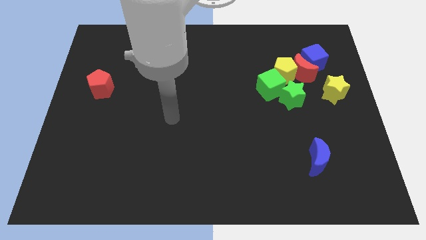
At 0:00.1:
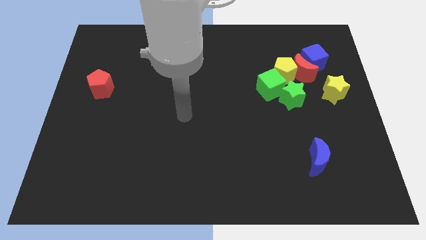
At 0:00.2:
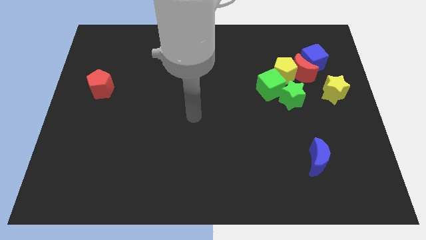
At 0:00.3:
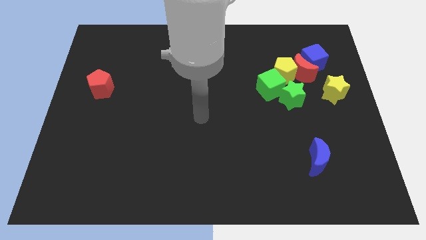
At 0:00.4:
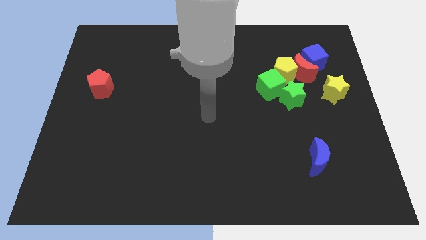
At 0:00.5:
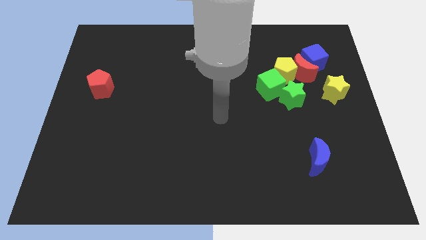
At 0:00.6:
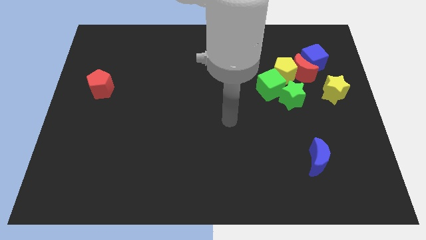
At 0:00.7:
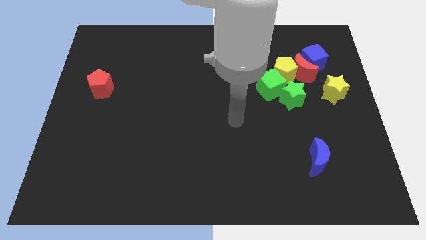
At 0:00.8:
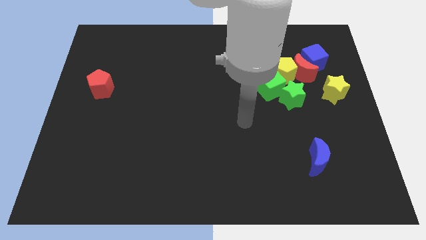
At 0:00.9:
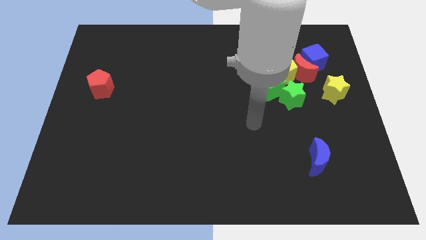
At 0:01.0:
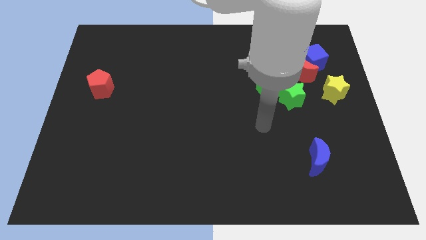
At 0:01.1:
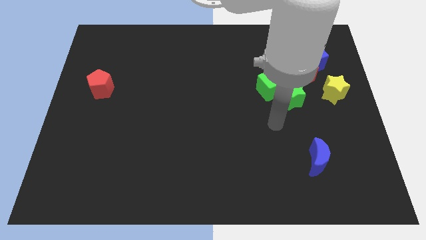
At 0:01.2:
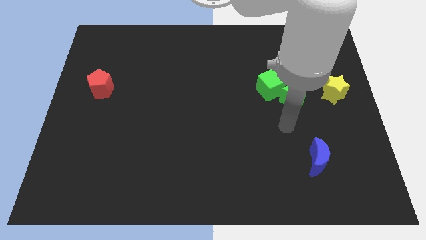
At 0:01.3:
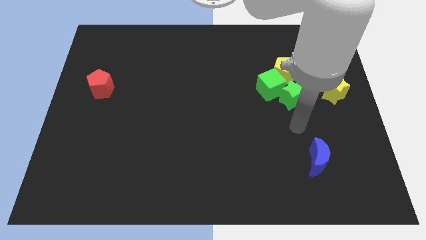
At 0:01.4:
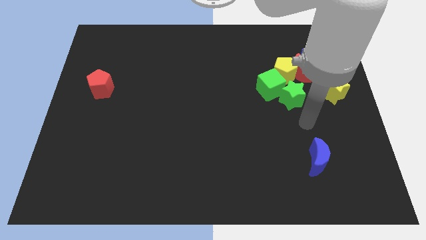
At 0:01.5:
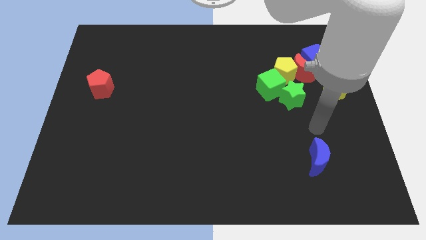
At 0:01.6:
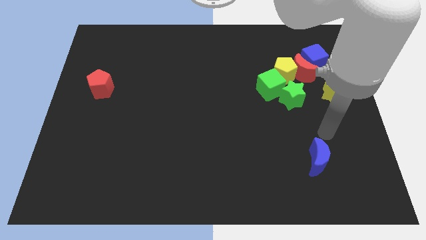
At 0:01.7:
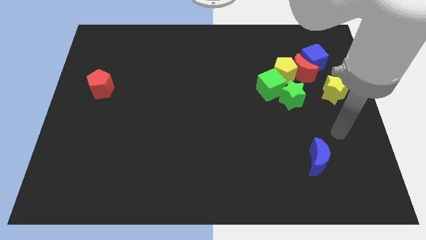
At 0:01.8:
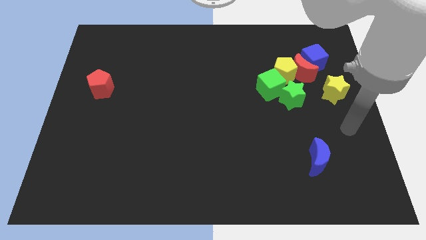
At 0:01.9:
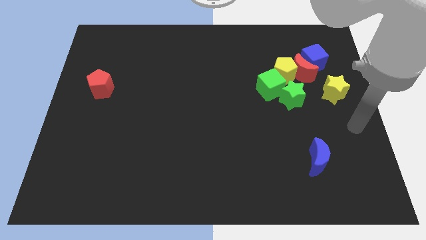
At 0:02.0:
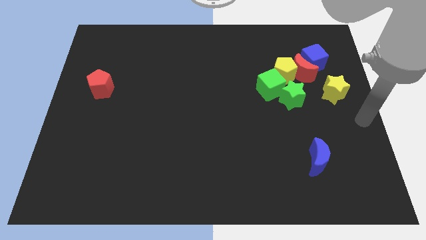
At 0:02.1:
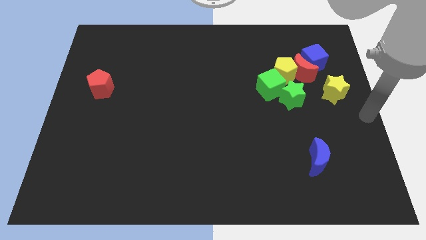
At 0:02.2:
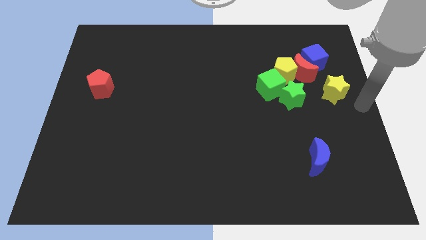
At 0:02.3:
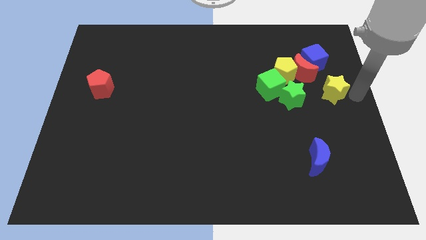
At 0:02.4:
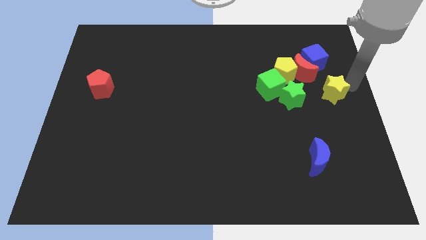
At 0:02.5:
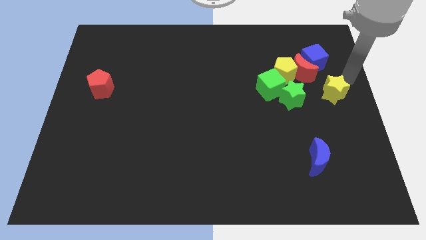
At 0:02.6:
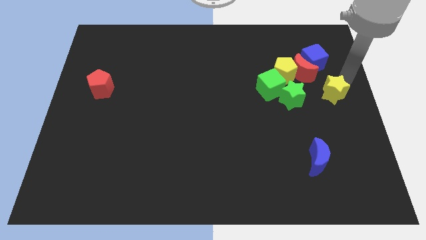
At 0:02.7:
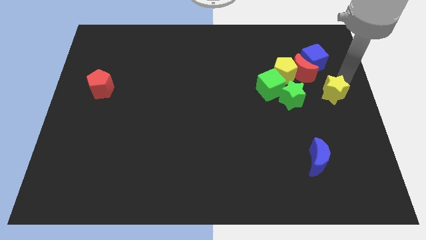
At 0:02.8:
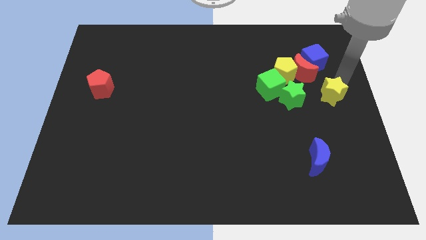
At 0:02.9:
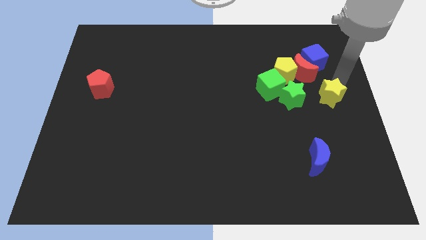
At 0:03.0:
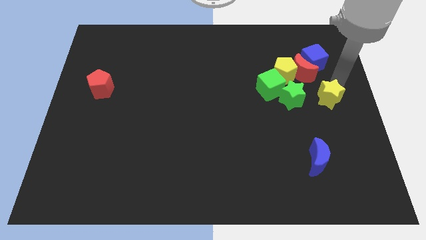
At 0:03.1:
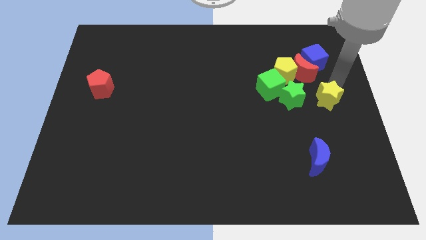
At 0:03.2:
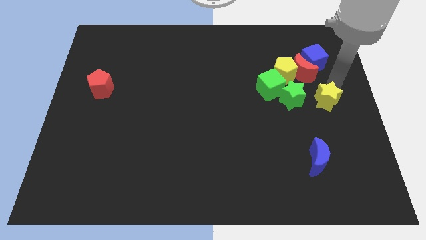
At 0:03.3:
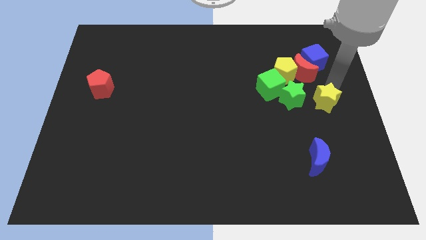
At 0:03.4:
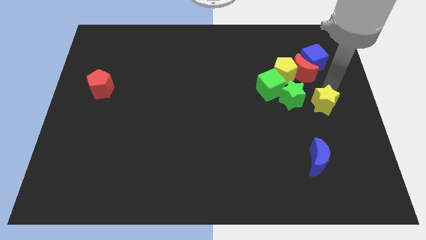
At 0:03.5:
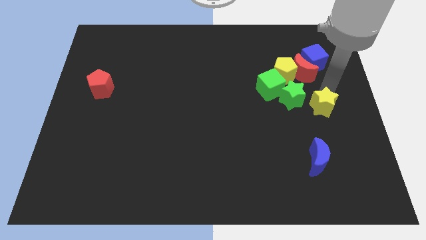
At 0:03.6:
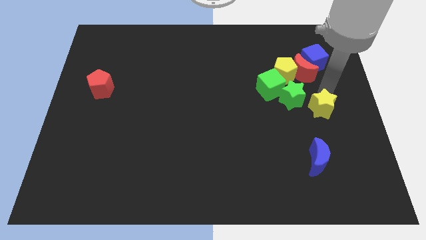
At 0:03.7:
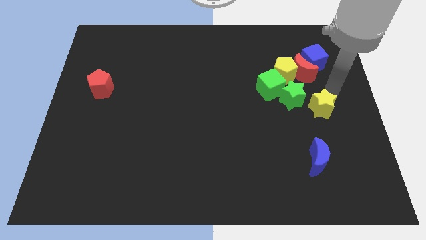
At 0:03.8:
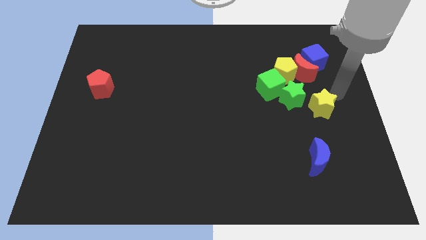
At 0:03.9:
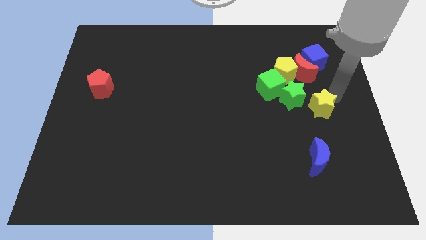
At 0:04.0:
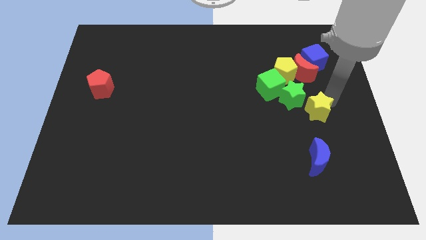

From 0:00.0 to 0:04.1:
slightly slide the yellow star down and then to the left

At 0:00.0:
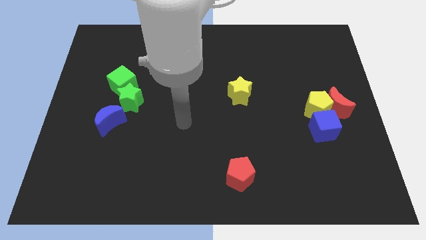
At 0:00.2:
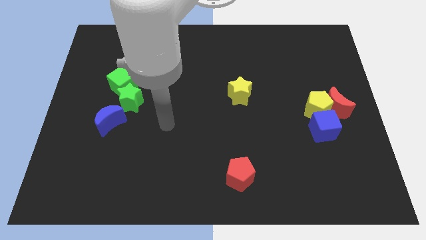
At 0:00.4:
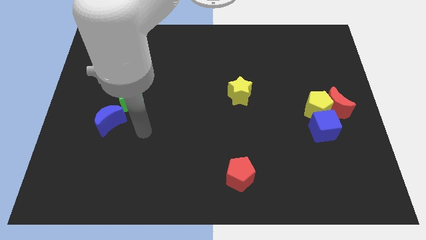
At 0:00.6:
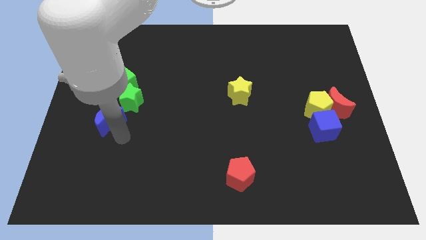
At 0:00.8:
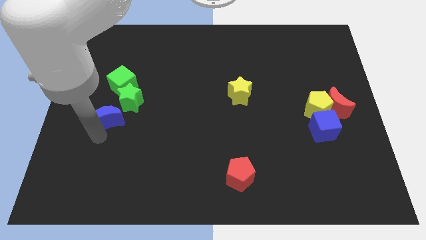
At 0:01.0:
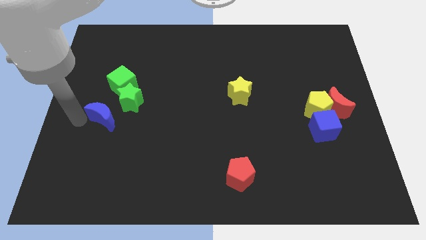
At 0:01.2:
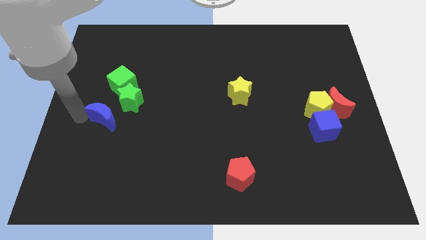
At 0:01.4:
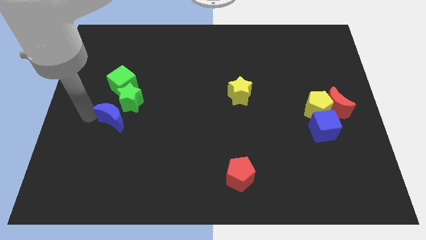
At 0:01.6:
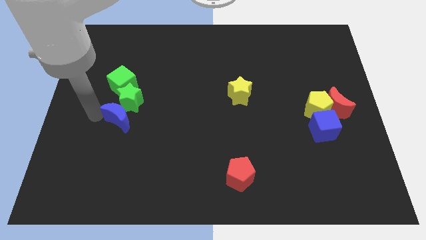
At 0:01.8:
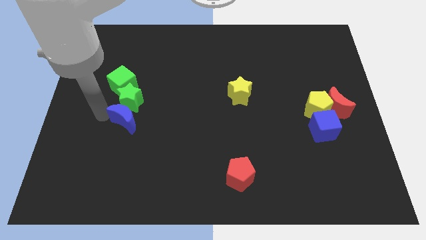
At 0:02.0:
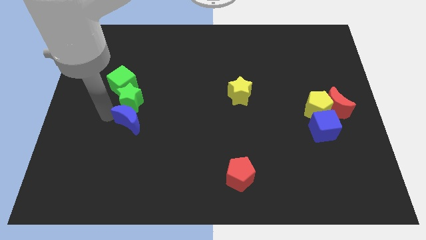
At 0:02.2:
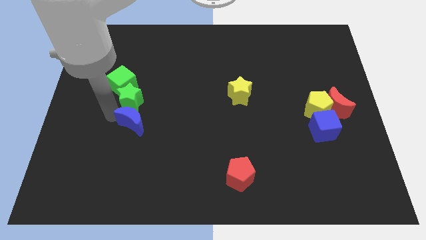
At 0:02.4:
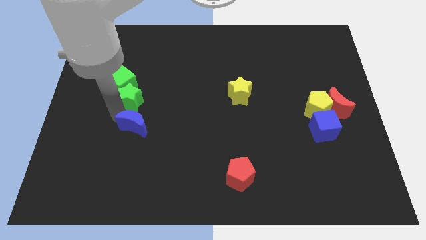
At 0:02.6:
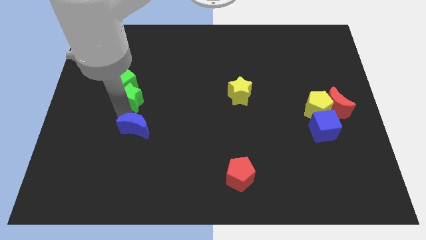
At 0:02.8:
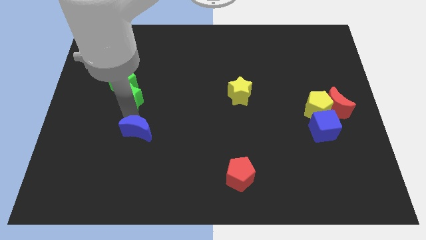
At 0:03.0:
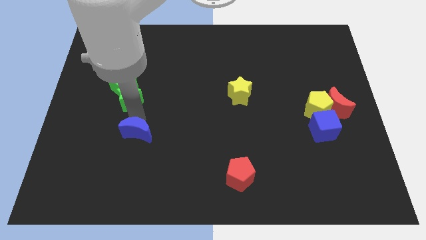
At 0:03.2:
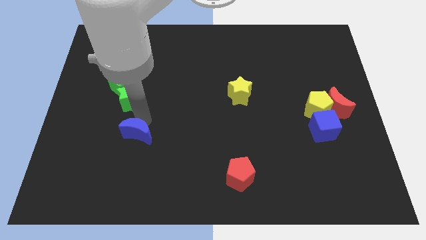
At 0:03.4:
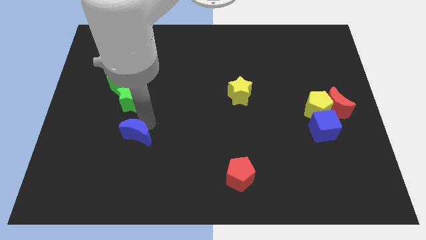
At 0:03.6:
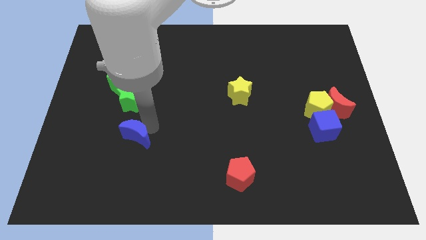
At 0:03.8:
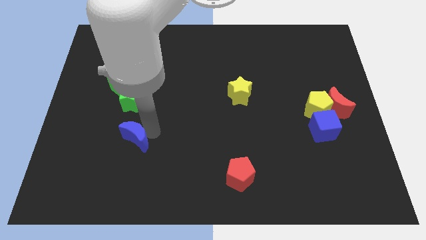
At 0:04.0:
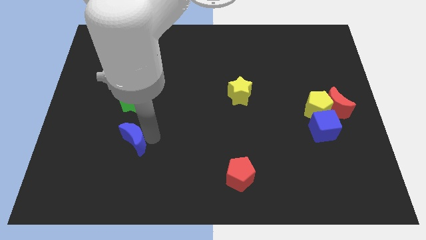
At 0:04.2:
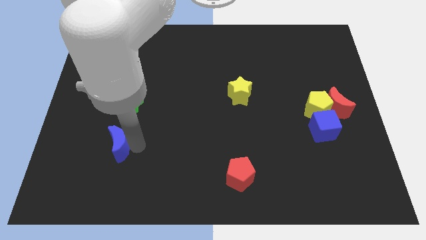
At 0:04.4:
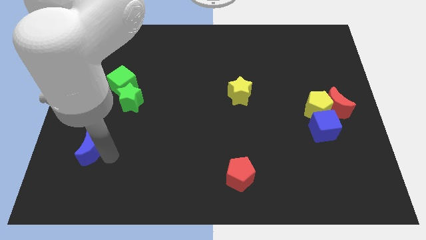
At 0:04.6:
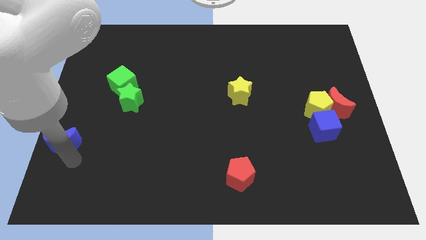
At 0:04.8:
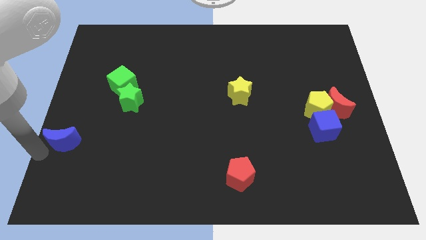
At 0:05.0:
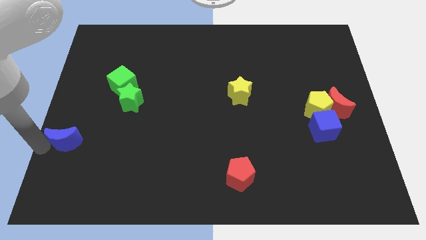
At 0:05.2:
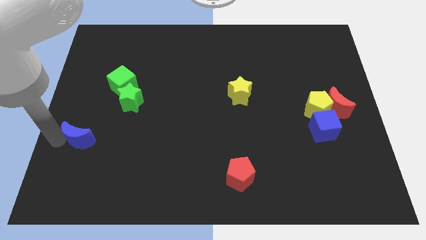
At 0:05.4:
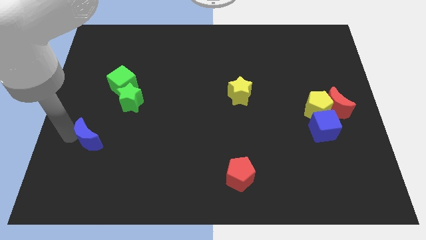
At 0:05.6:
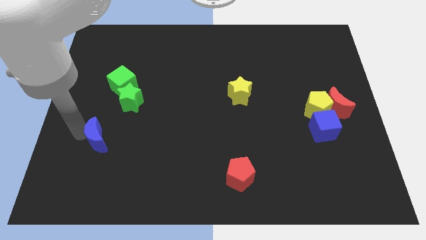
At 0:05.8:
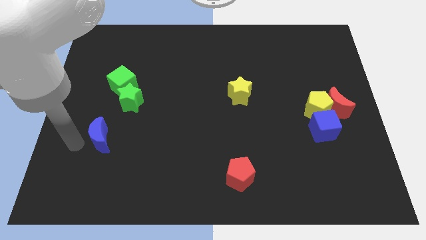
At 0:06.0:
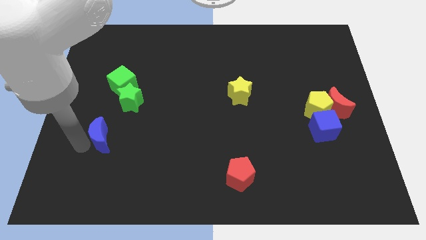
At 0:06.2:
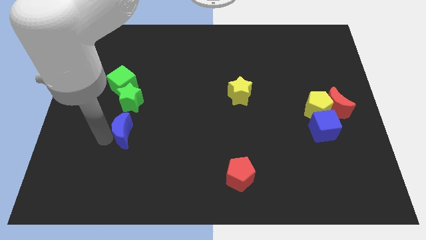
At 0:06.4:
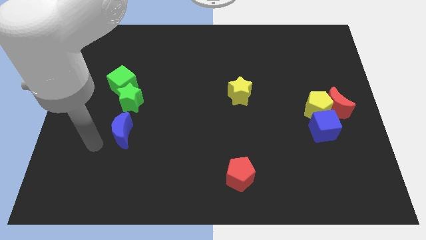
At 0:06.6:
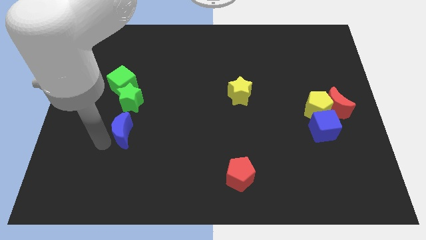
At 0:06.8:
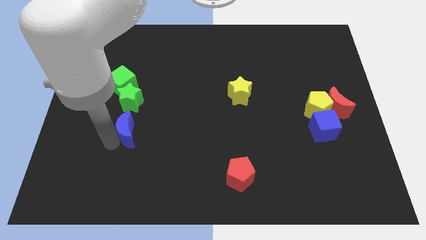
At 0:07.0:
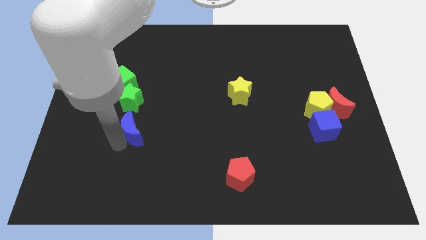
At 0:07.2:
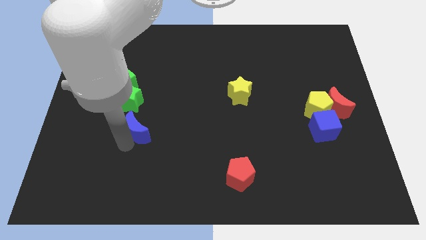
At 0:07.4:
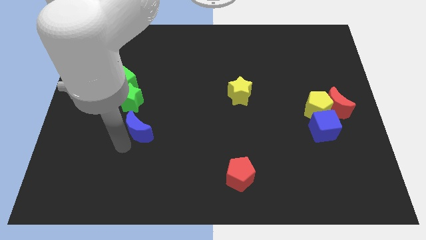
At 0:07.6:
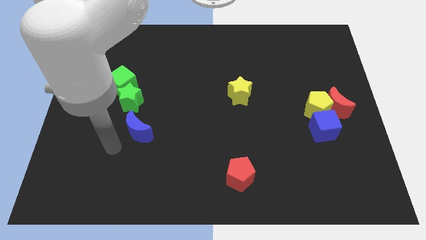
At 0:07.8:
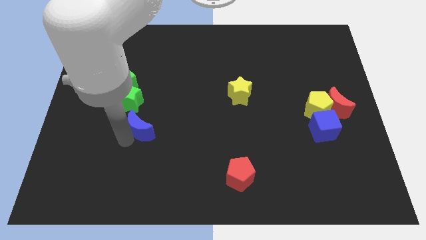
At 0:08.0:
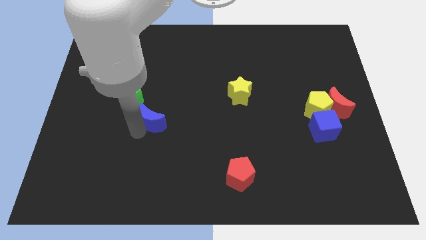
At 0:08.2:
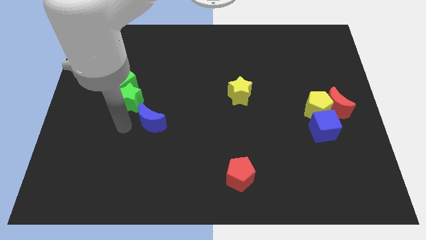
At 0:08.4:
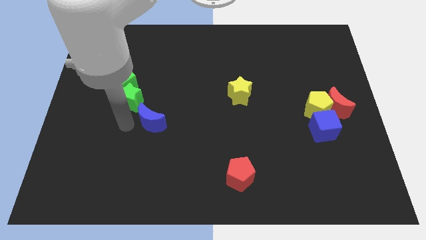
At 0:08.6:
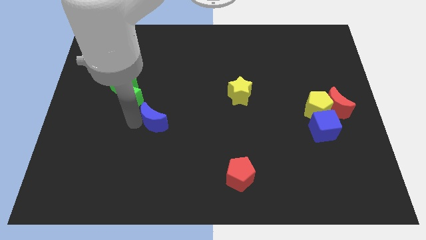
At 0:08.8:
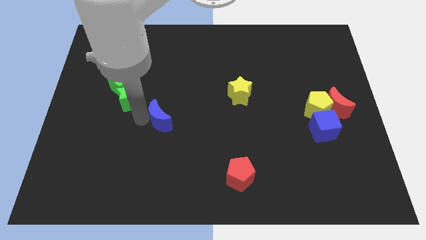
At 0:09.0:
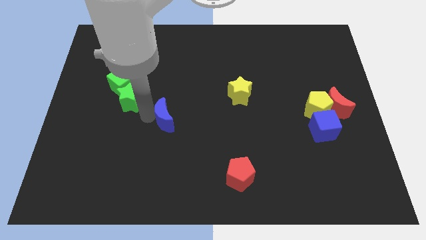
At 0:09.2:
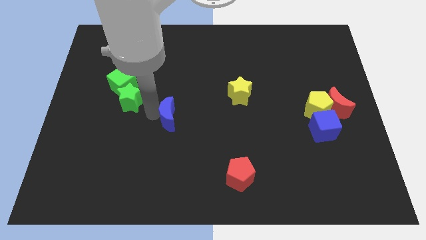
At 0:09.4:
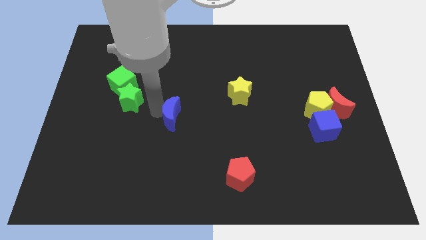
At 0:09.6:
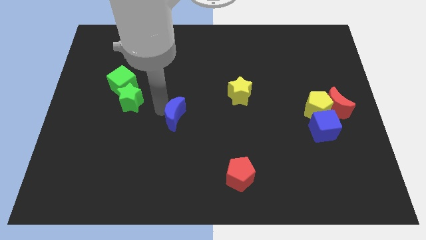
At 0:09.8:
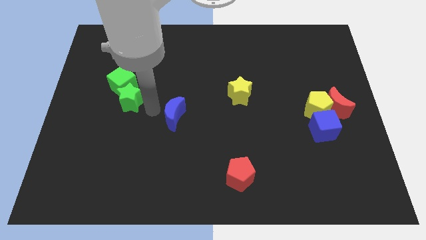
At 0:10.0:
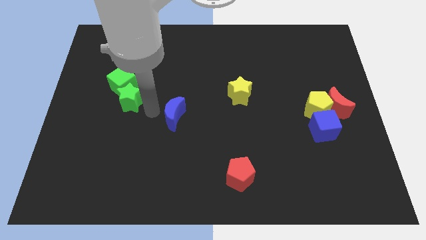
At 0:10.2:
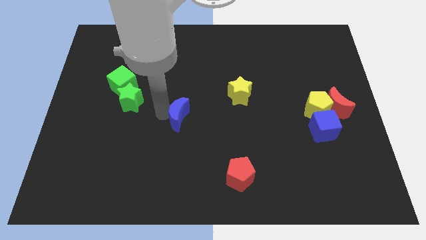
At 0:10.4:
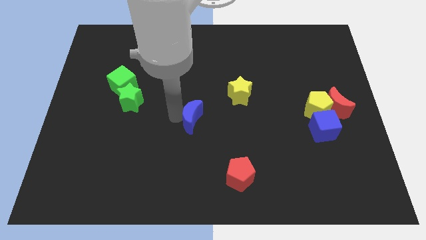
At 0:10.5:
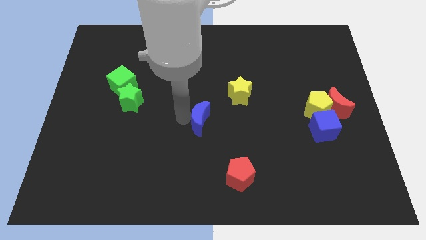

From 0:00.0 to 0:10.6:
push the blue moon to the right
